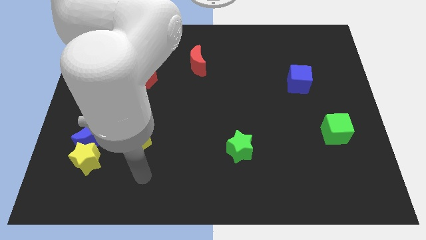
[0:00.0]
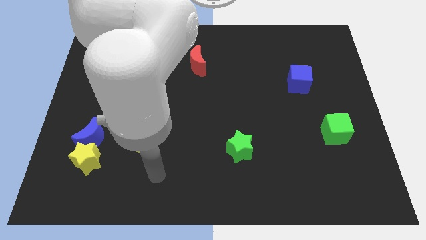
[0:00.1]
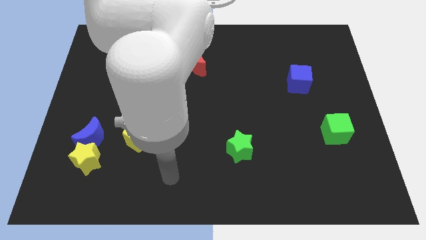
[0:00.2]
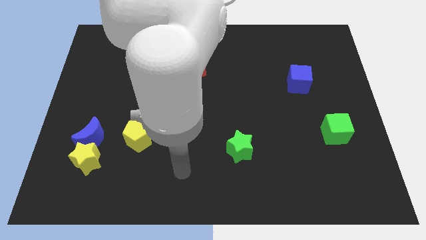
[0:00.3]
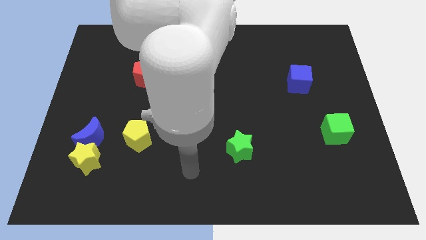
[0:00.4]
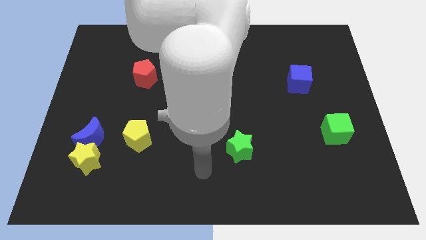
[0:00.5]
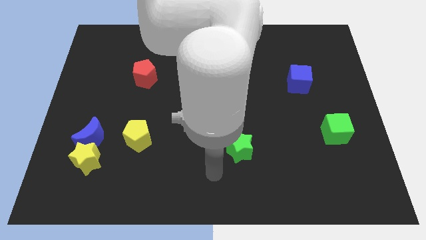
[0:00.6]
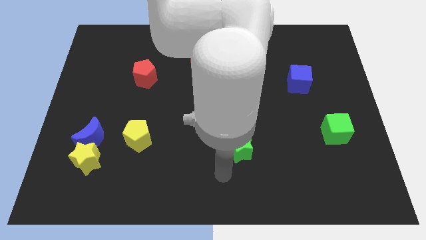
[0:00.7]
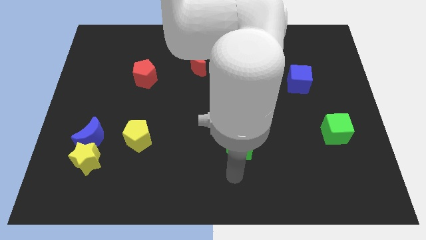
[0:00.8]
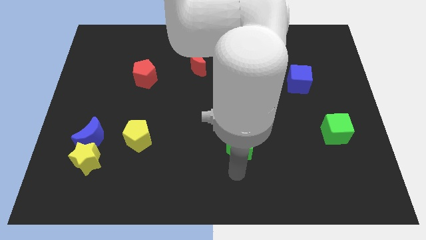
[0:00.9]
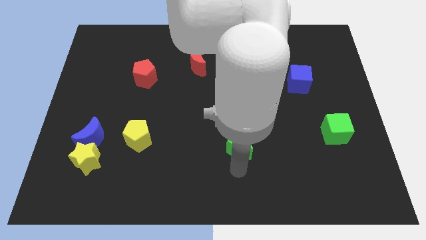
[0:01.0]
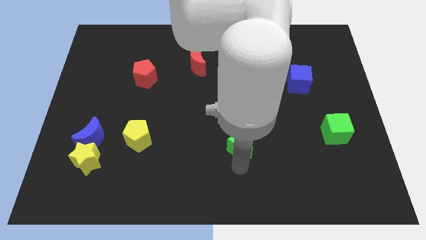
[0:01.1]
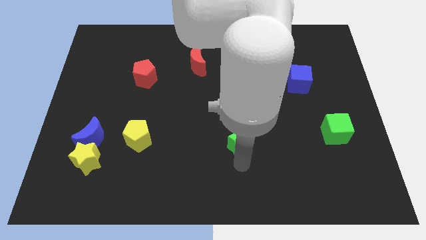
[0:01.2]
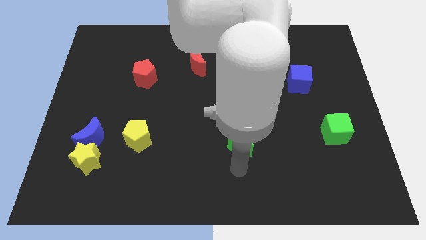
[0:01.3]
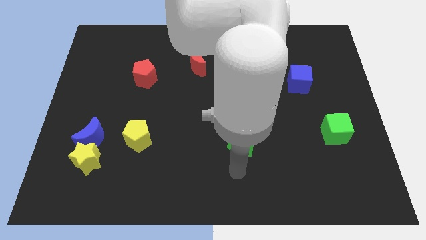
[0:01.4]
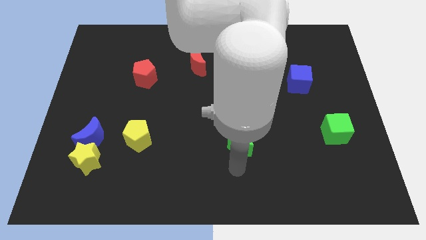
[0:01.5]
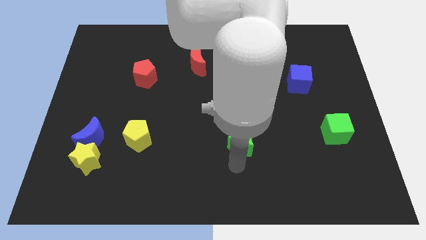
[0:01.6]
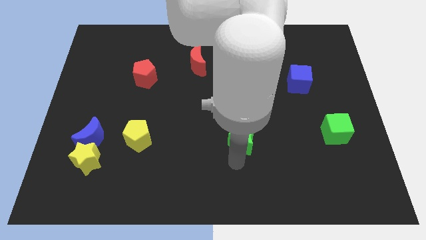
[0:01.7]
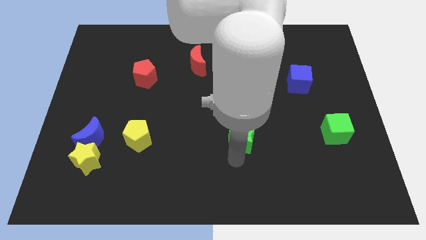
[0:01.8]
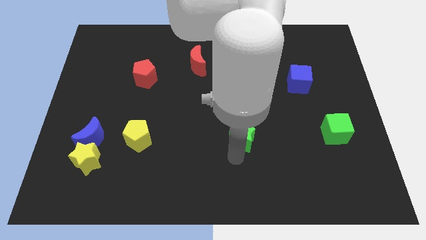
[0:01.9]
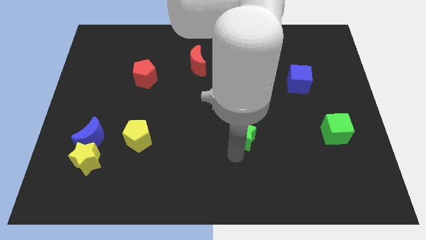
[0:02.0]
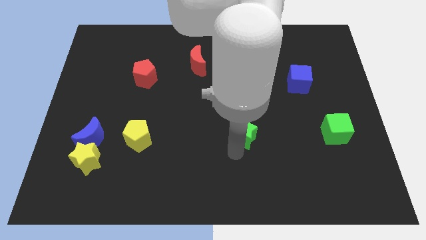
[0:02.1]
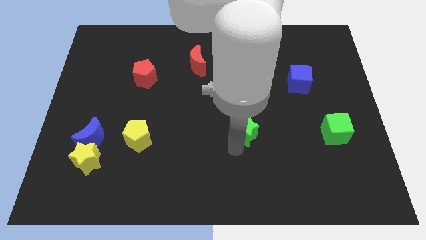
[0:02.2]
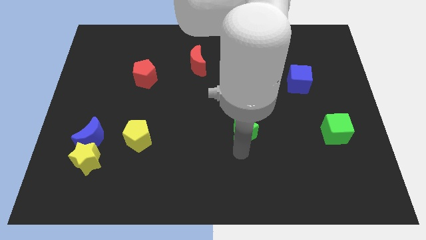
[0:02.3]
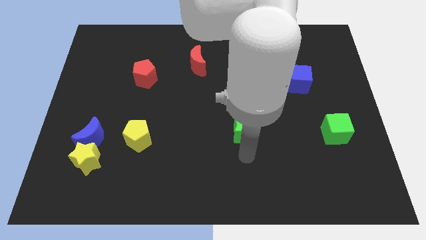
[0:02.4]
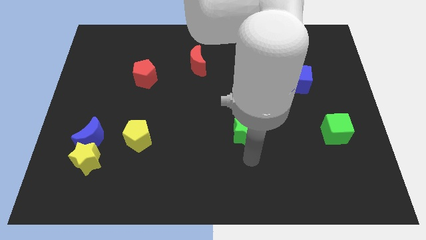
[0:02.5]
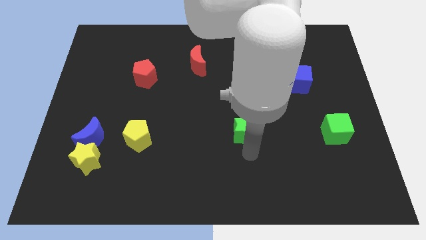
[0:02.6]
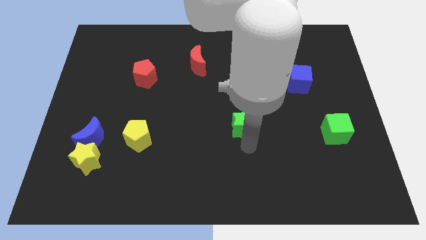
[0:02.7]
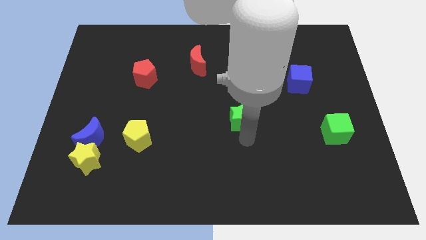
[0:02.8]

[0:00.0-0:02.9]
slightly push the green star upwards

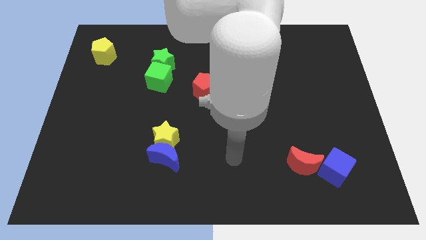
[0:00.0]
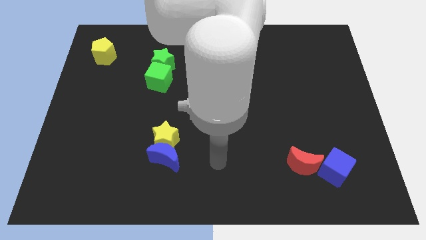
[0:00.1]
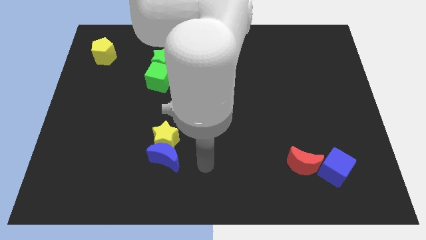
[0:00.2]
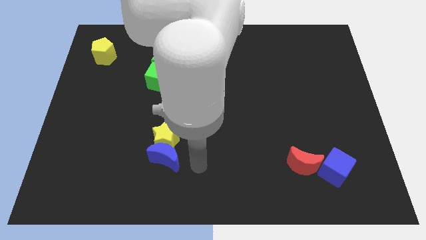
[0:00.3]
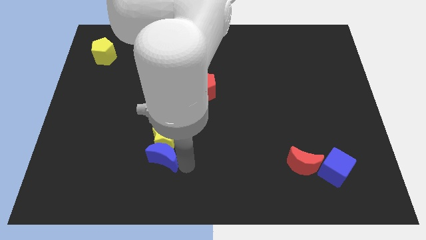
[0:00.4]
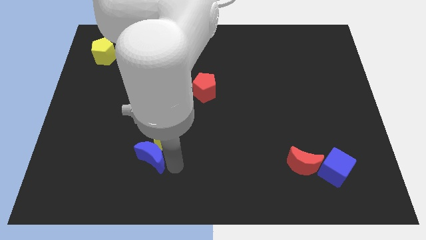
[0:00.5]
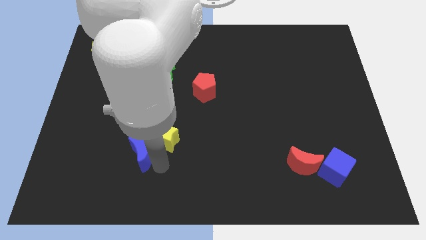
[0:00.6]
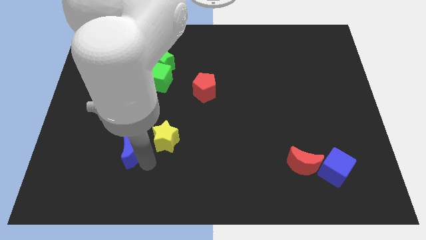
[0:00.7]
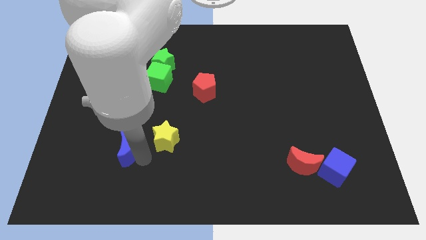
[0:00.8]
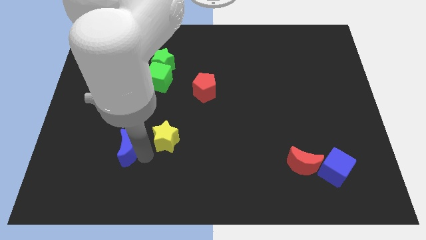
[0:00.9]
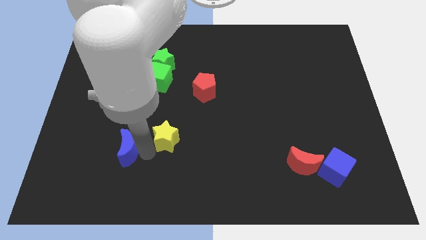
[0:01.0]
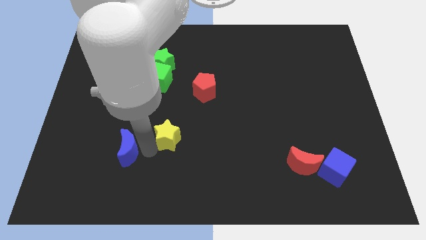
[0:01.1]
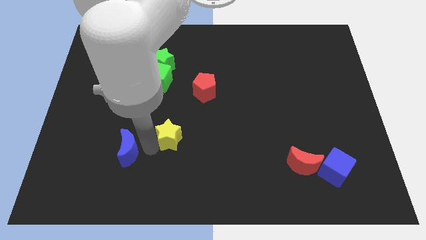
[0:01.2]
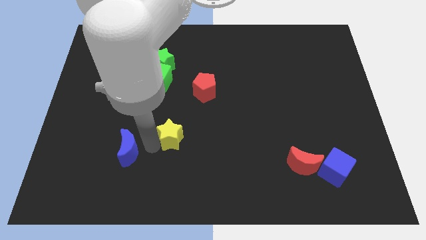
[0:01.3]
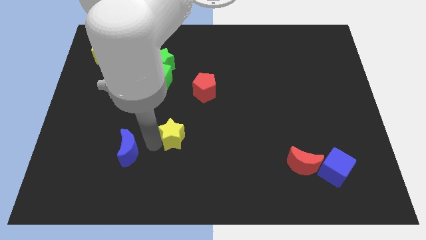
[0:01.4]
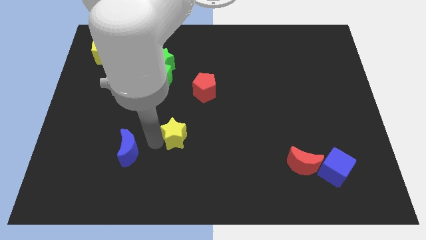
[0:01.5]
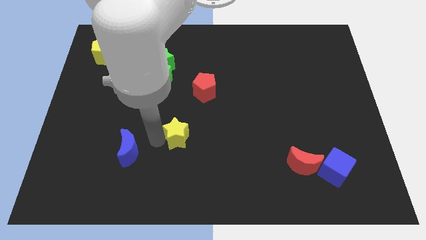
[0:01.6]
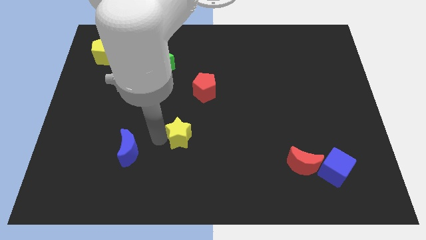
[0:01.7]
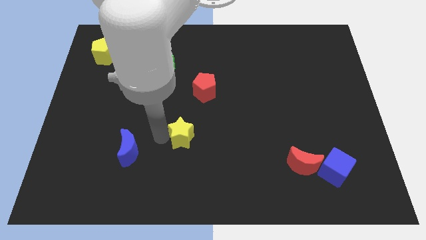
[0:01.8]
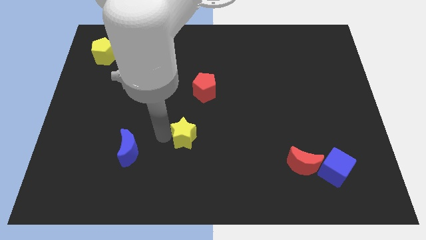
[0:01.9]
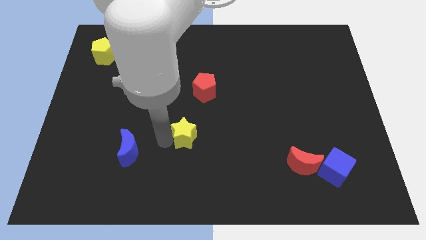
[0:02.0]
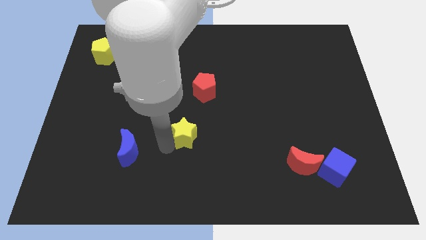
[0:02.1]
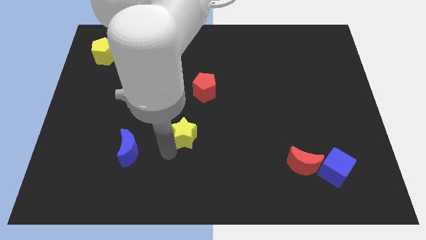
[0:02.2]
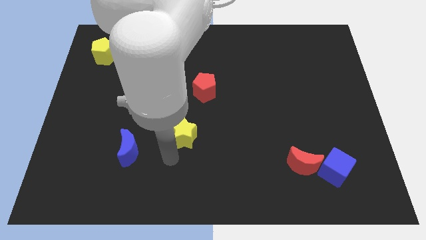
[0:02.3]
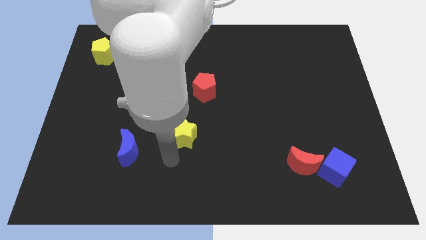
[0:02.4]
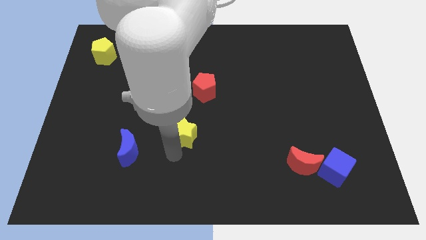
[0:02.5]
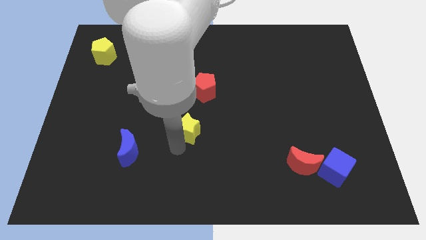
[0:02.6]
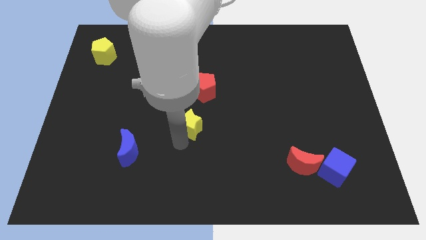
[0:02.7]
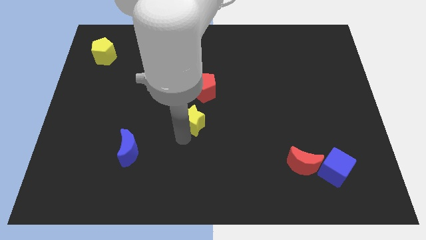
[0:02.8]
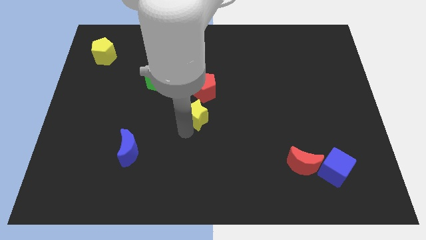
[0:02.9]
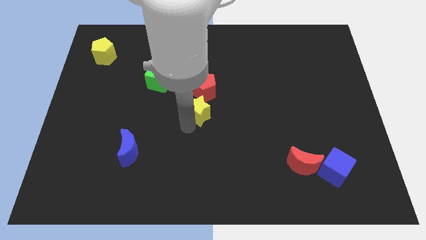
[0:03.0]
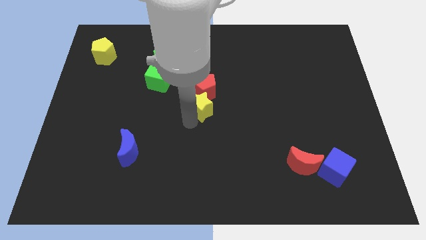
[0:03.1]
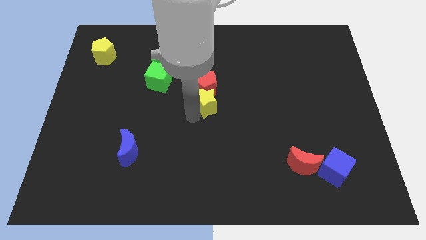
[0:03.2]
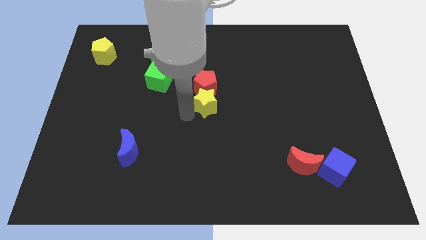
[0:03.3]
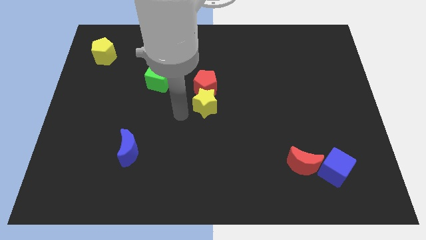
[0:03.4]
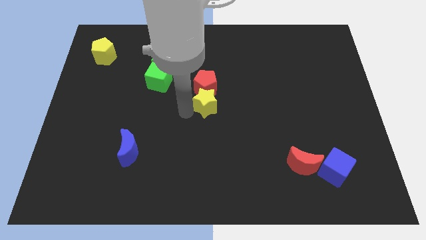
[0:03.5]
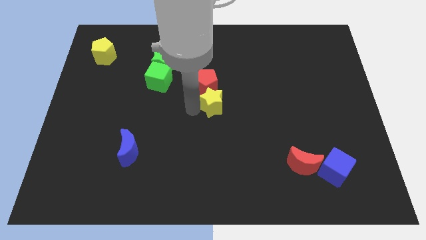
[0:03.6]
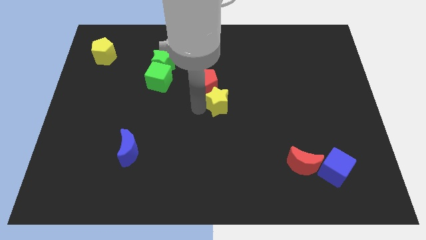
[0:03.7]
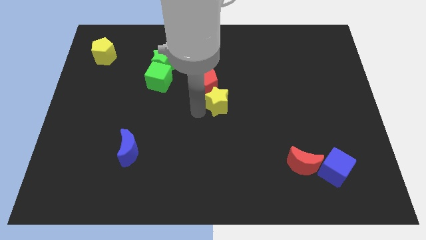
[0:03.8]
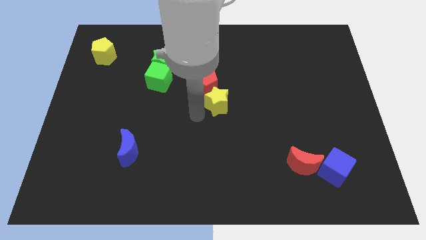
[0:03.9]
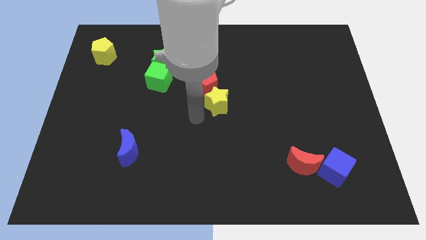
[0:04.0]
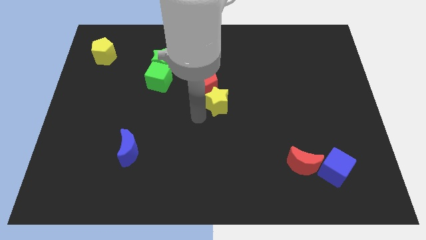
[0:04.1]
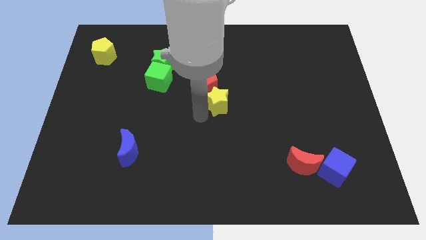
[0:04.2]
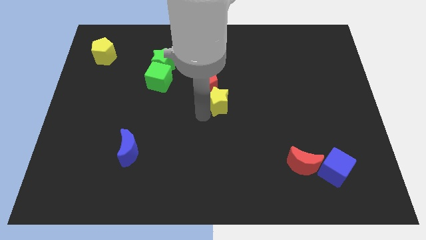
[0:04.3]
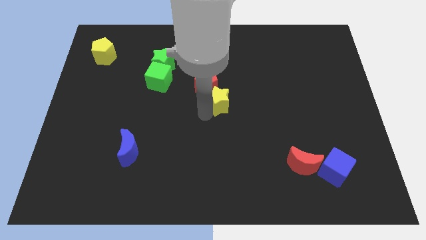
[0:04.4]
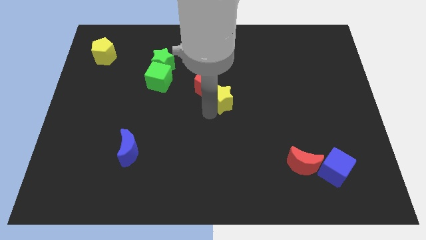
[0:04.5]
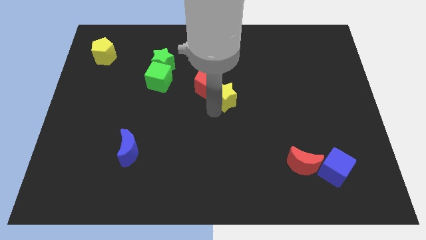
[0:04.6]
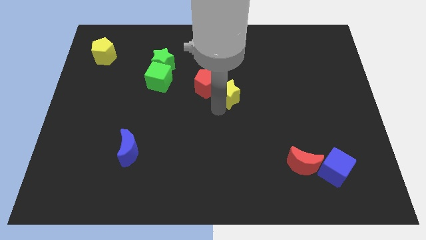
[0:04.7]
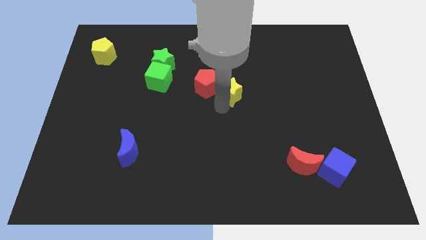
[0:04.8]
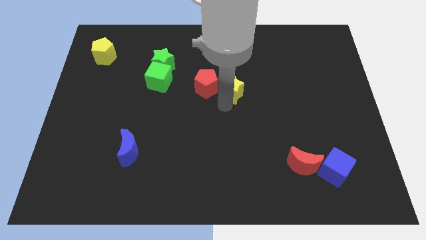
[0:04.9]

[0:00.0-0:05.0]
move the yellow star upwards and right
